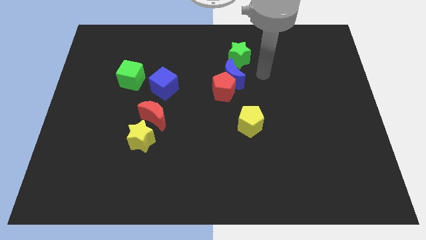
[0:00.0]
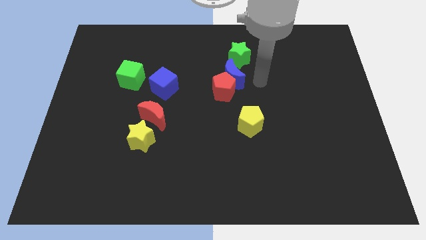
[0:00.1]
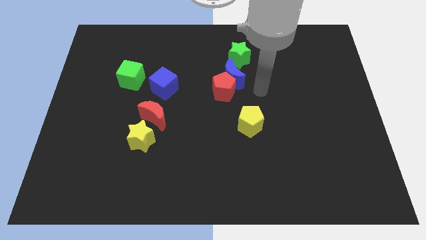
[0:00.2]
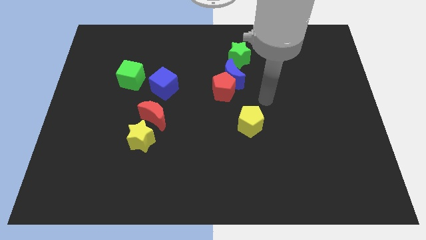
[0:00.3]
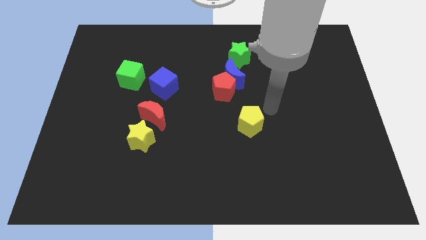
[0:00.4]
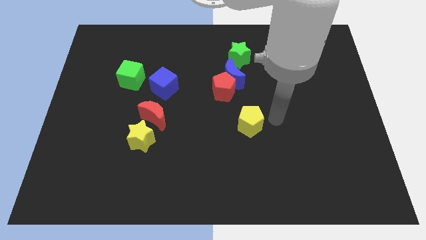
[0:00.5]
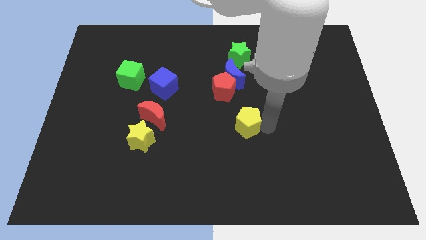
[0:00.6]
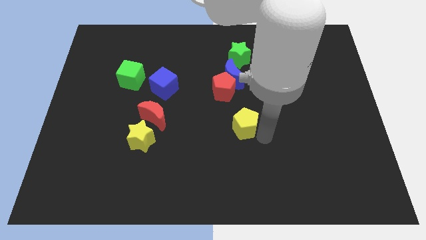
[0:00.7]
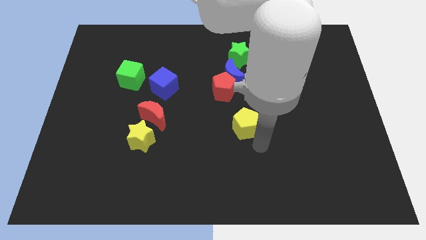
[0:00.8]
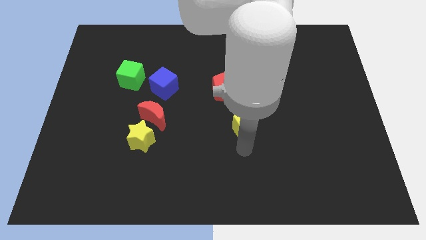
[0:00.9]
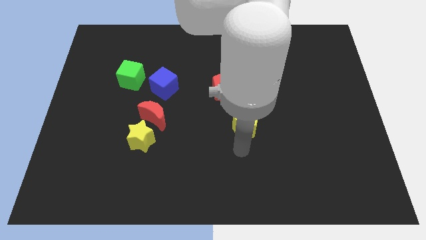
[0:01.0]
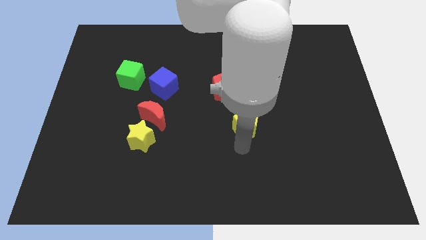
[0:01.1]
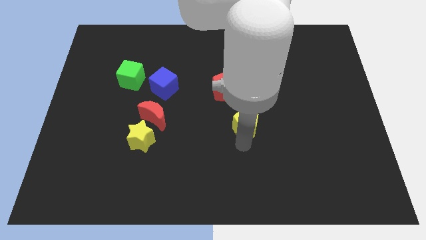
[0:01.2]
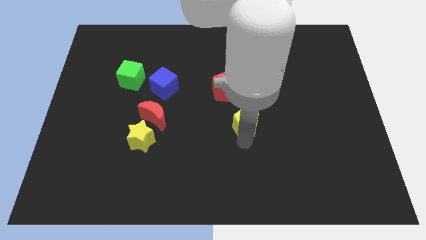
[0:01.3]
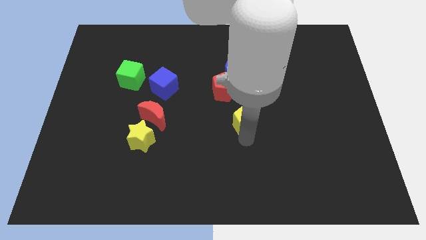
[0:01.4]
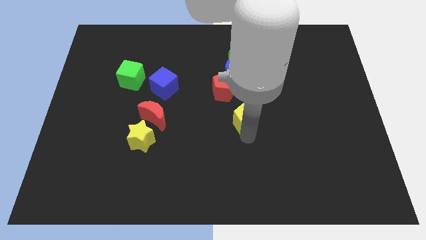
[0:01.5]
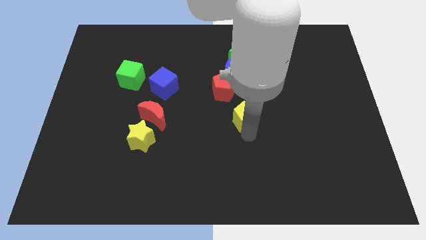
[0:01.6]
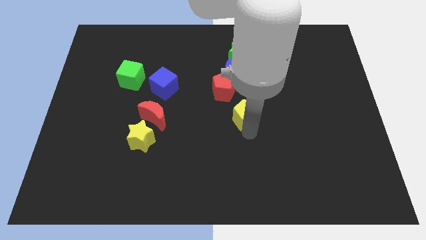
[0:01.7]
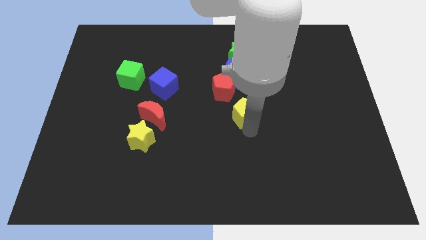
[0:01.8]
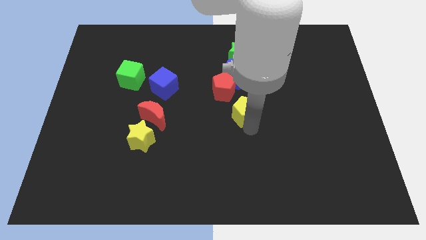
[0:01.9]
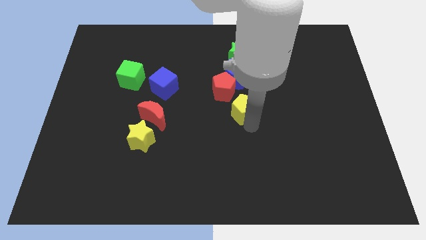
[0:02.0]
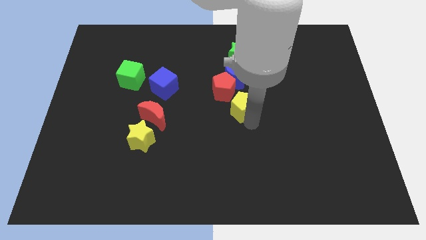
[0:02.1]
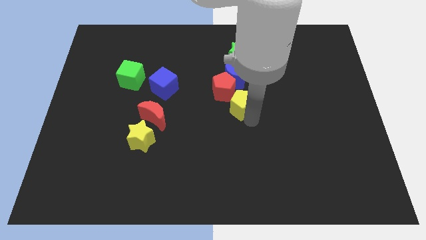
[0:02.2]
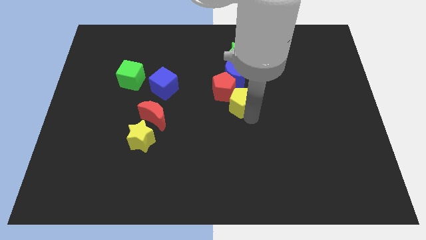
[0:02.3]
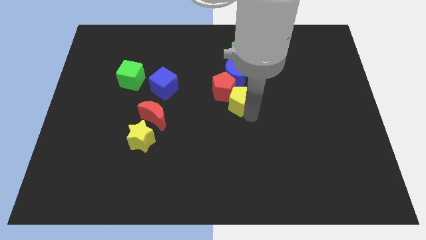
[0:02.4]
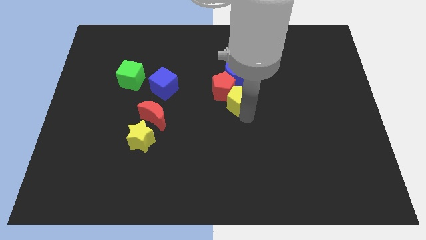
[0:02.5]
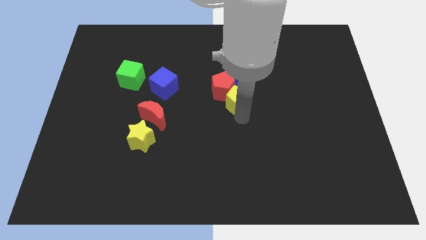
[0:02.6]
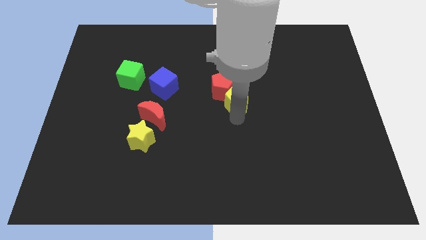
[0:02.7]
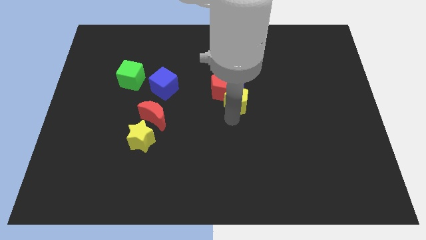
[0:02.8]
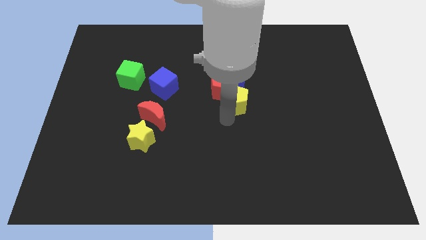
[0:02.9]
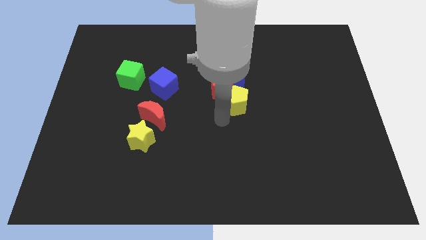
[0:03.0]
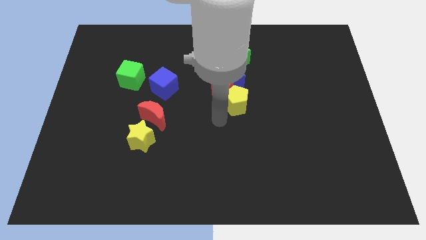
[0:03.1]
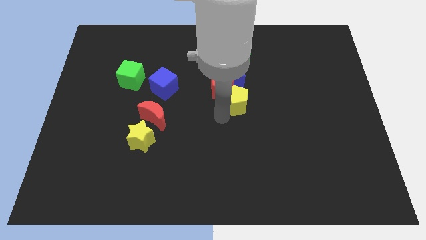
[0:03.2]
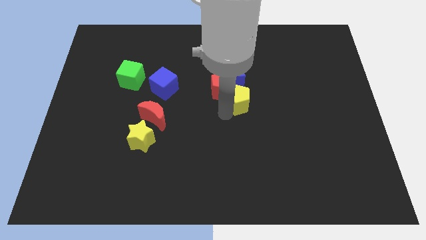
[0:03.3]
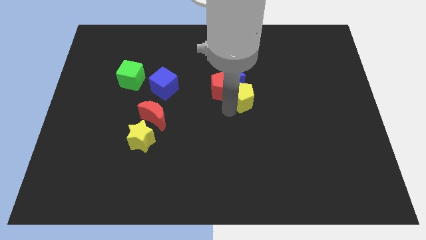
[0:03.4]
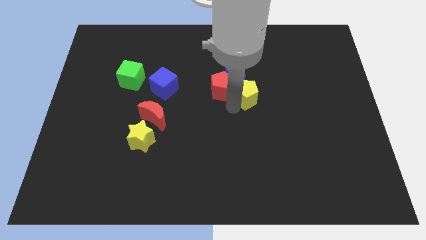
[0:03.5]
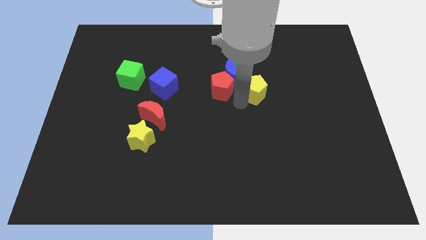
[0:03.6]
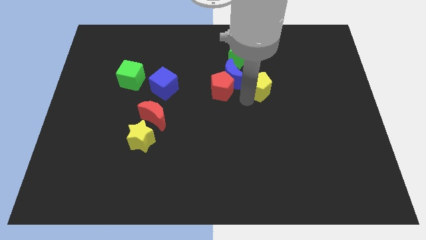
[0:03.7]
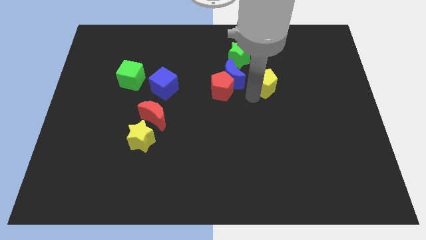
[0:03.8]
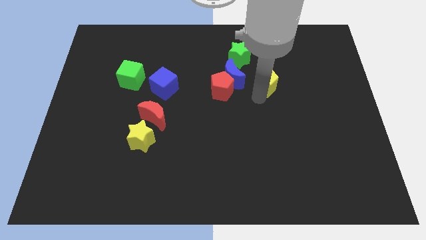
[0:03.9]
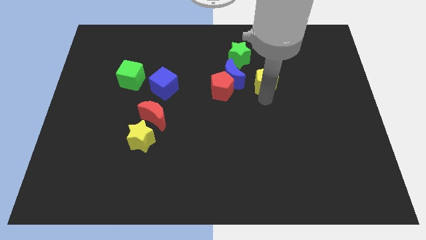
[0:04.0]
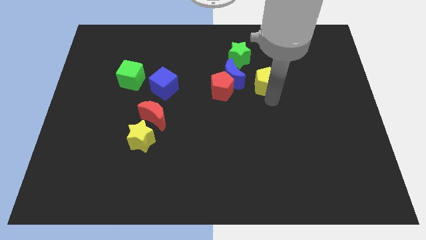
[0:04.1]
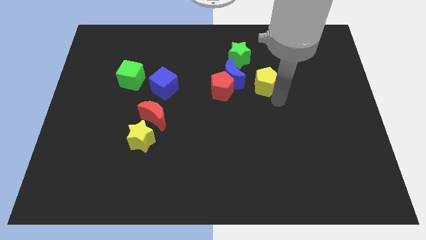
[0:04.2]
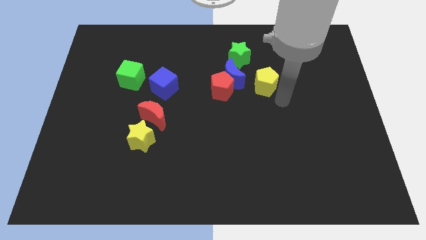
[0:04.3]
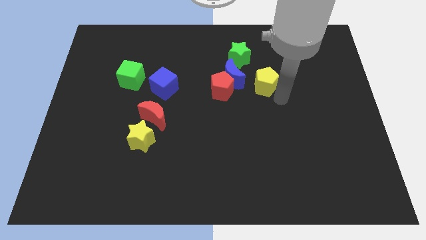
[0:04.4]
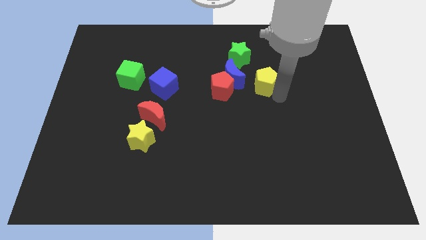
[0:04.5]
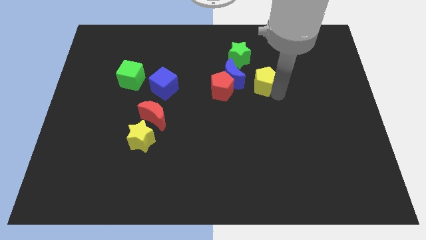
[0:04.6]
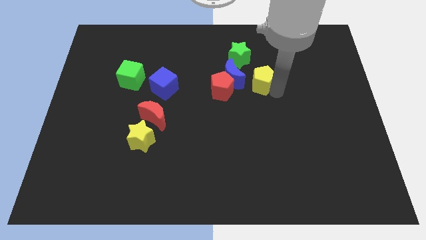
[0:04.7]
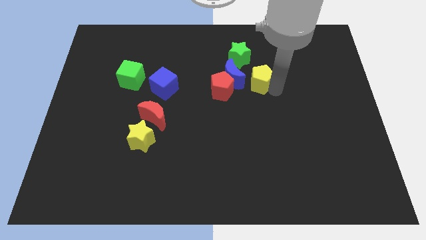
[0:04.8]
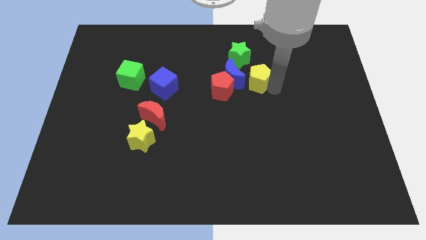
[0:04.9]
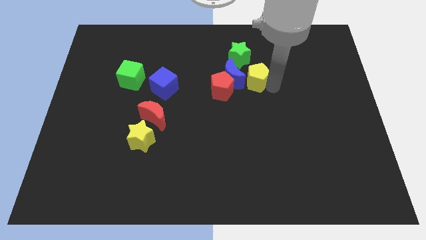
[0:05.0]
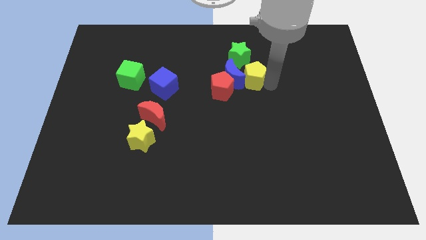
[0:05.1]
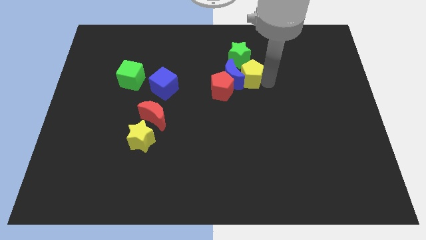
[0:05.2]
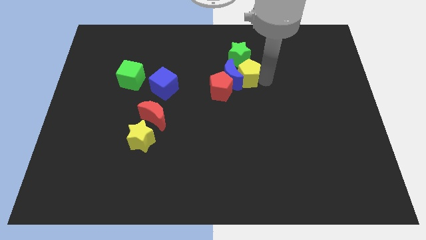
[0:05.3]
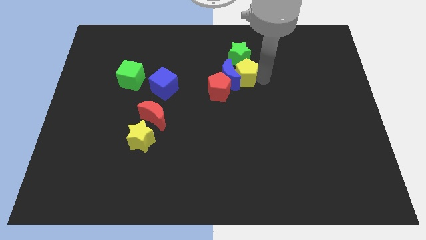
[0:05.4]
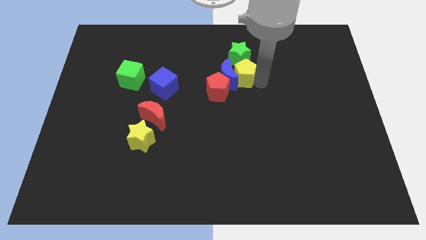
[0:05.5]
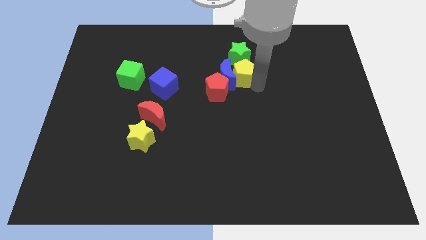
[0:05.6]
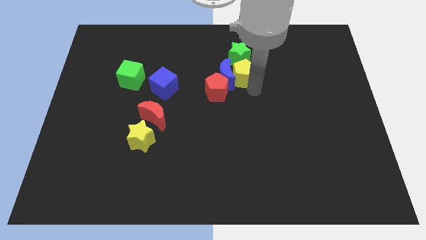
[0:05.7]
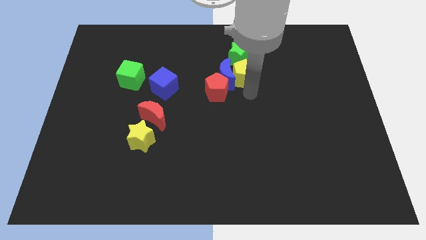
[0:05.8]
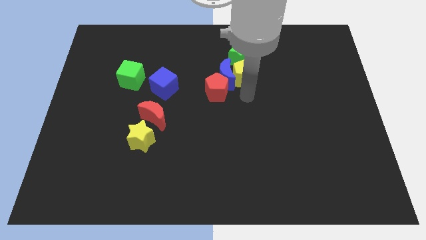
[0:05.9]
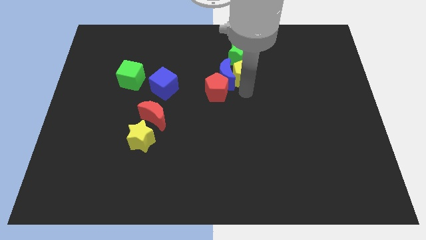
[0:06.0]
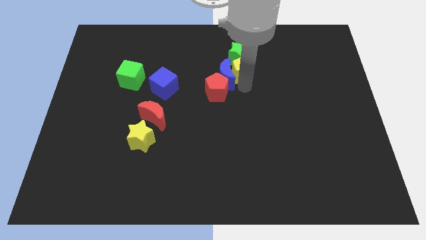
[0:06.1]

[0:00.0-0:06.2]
push the yellow pentagon to the green star

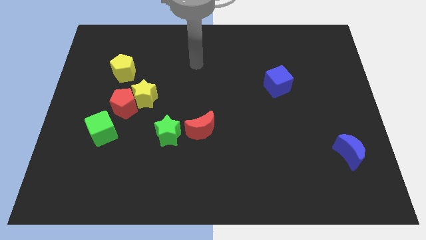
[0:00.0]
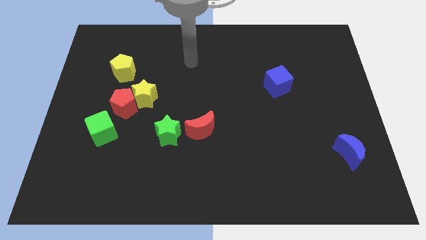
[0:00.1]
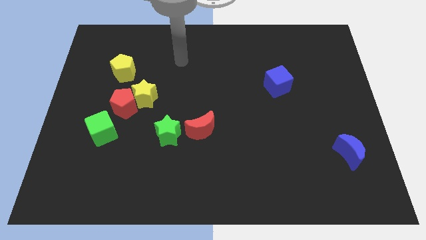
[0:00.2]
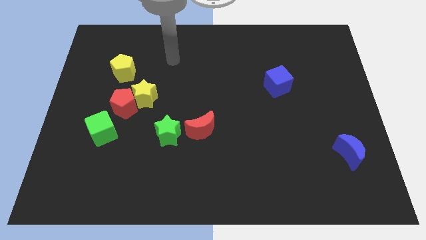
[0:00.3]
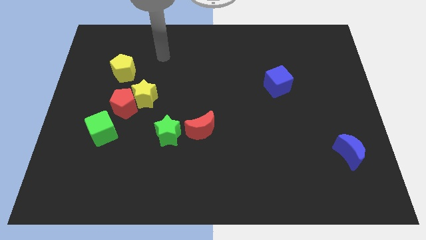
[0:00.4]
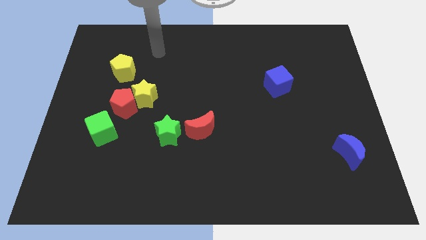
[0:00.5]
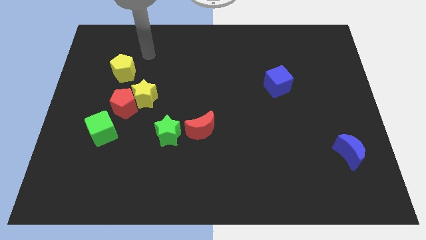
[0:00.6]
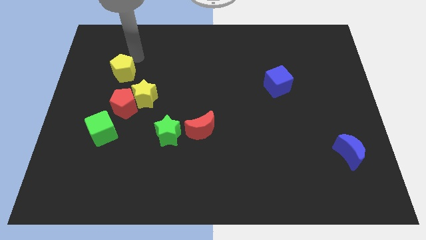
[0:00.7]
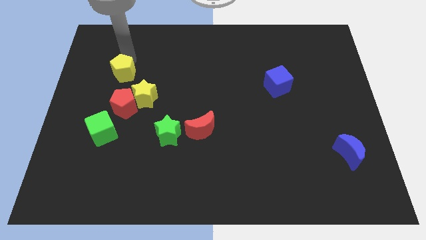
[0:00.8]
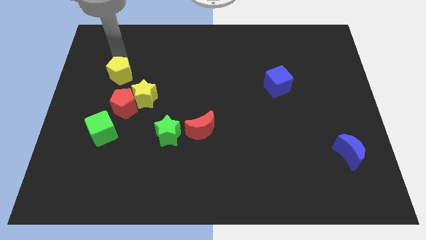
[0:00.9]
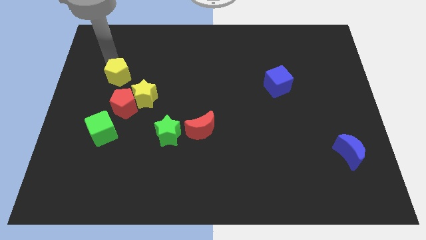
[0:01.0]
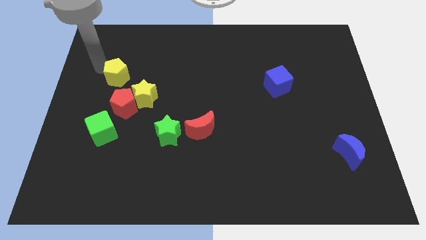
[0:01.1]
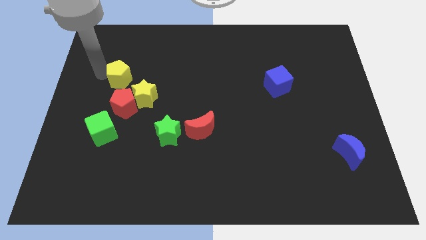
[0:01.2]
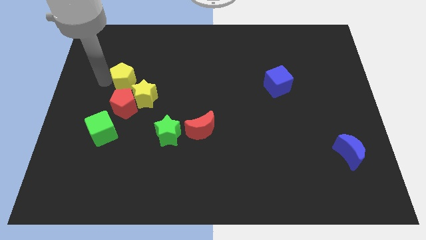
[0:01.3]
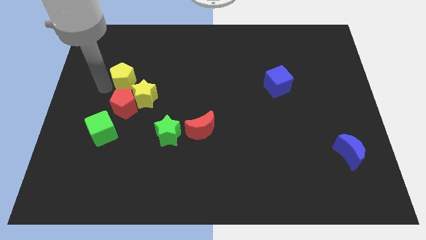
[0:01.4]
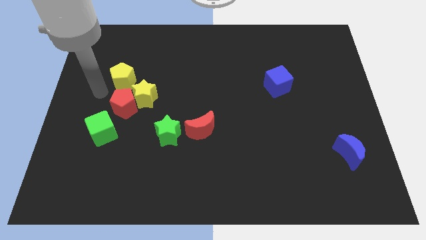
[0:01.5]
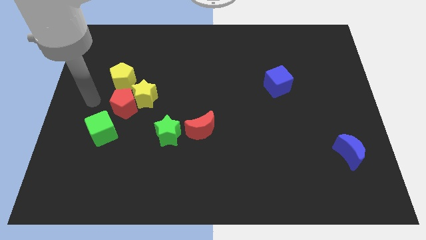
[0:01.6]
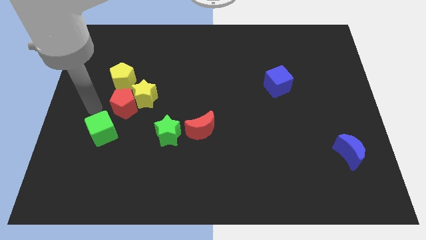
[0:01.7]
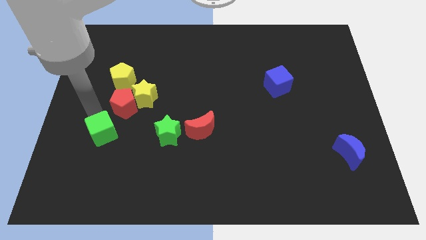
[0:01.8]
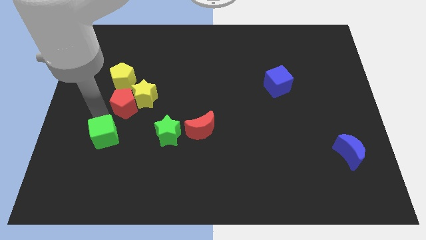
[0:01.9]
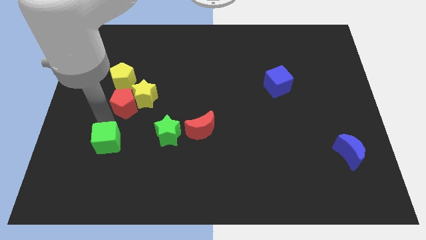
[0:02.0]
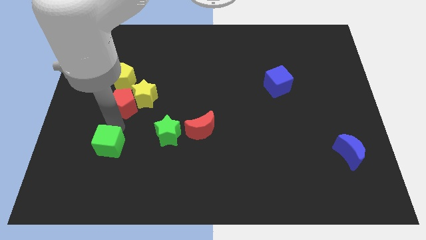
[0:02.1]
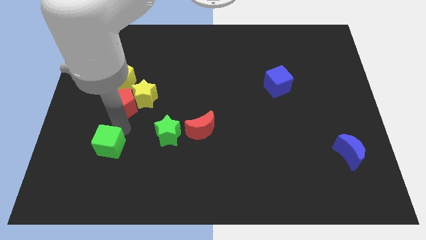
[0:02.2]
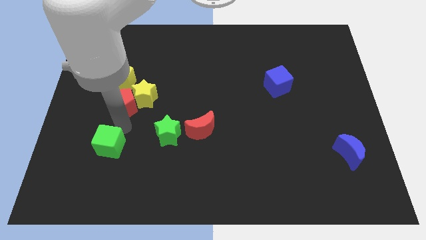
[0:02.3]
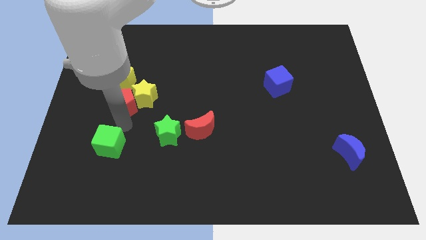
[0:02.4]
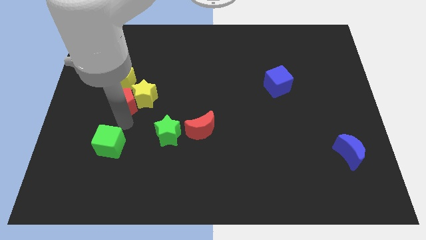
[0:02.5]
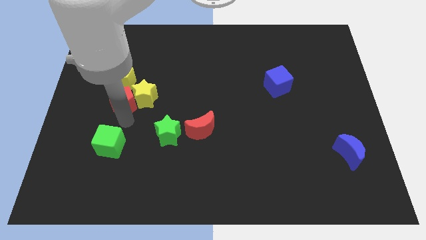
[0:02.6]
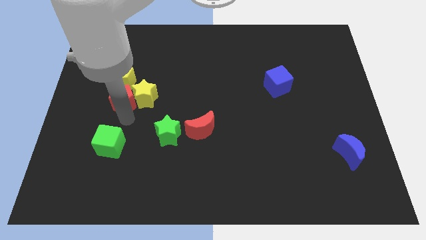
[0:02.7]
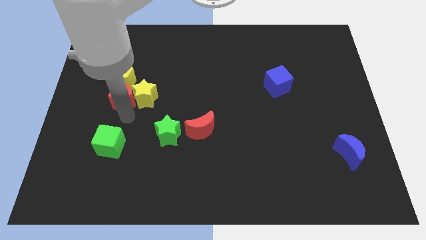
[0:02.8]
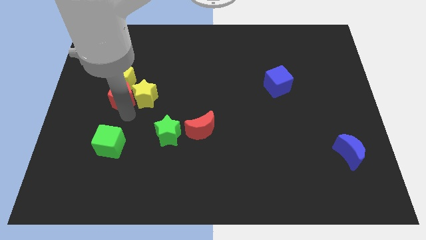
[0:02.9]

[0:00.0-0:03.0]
move the red pentagon towards the yellow pentagon
